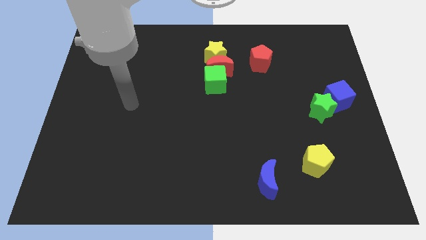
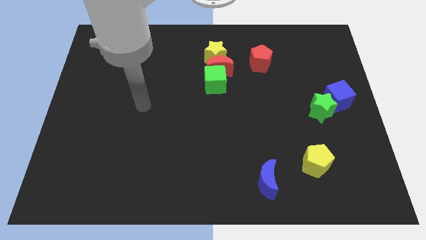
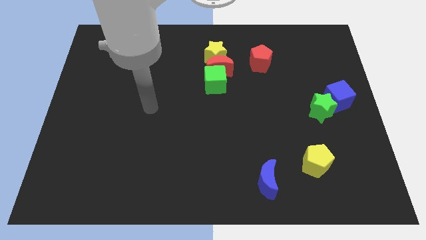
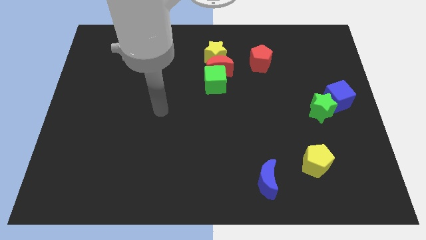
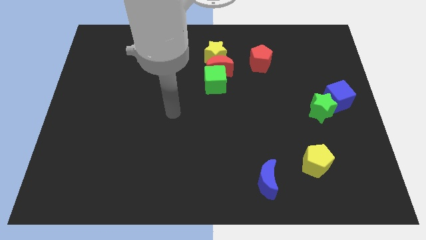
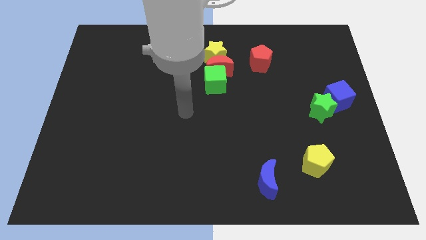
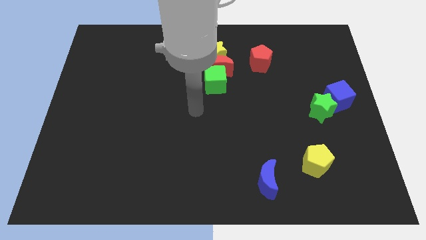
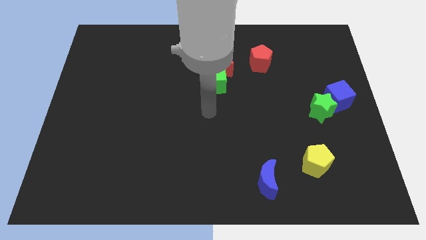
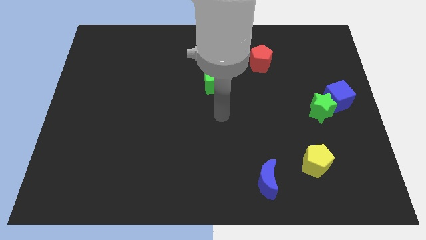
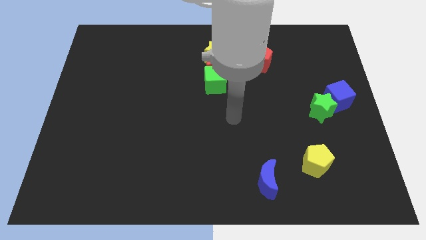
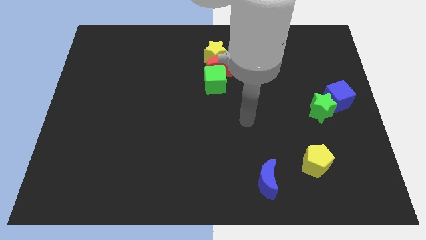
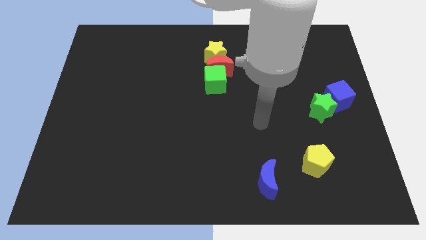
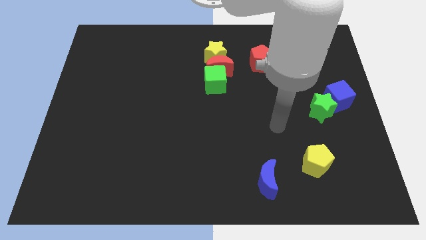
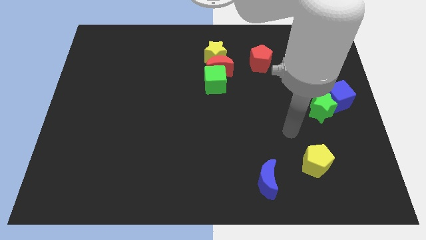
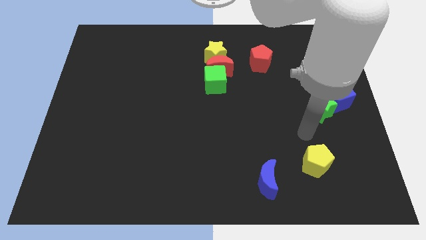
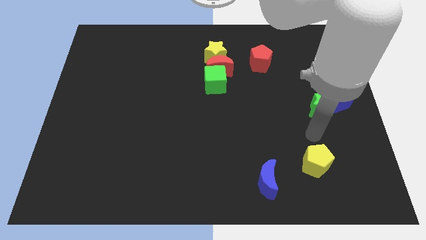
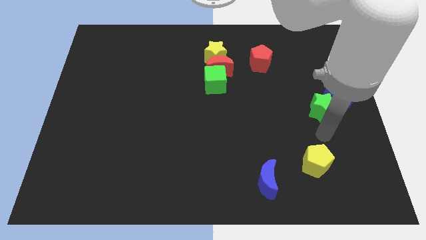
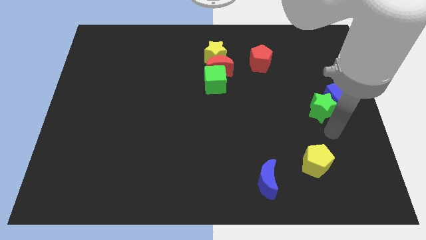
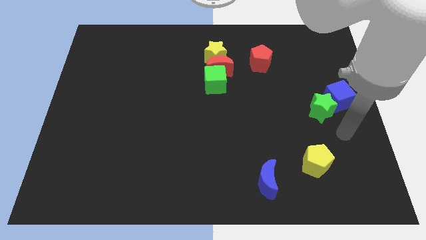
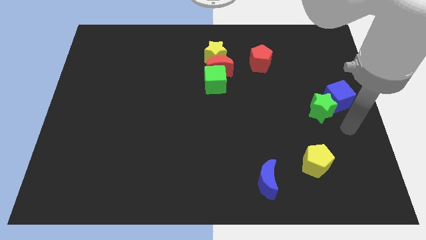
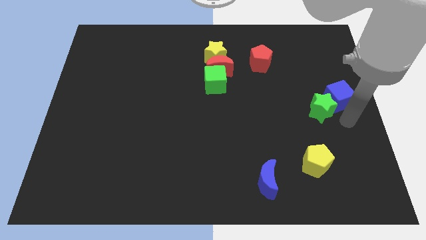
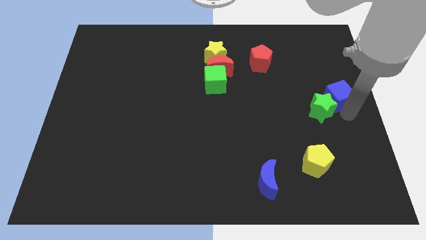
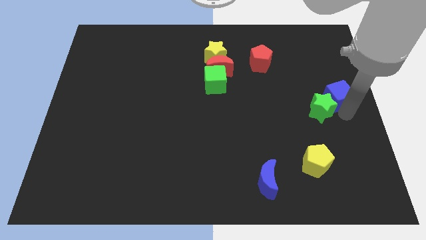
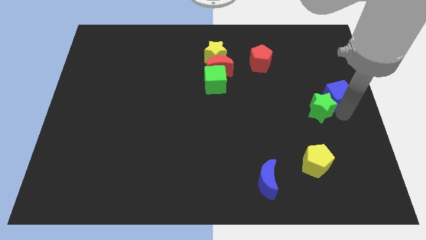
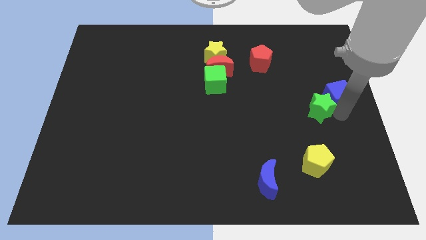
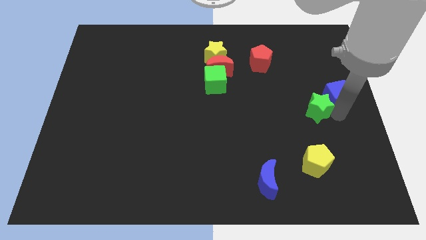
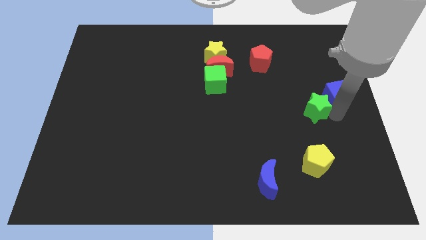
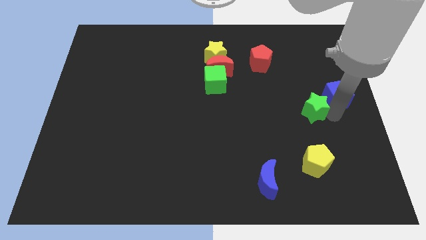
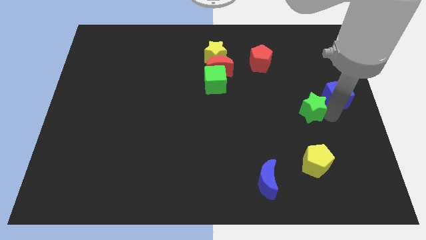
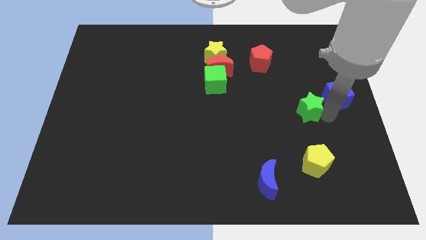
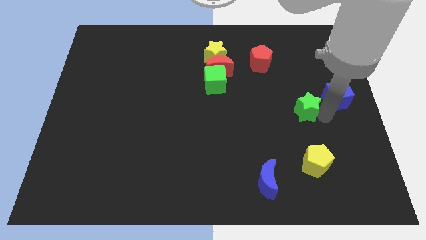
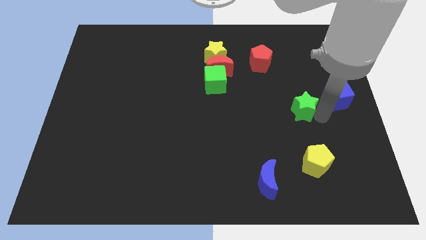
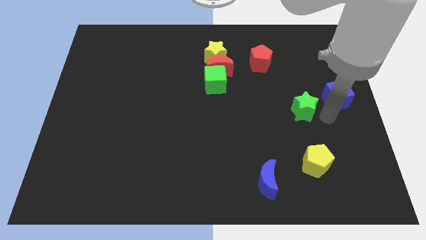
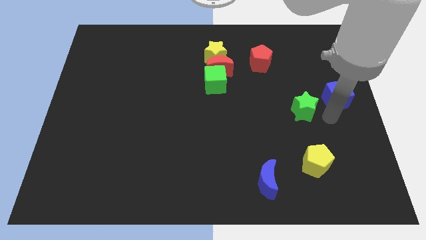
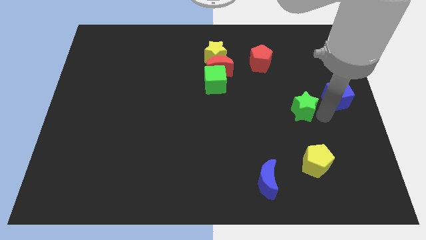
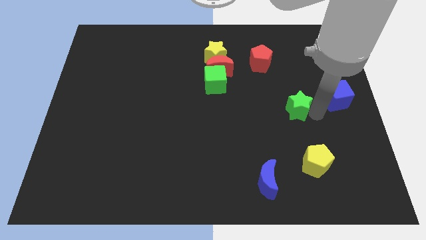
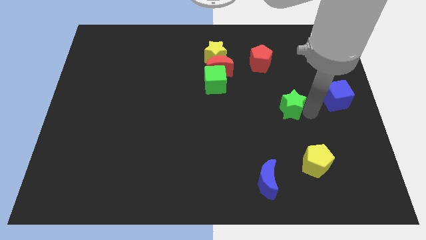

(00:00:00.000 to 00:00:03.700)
push the green star a little to the left

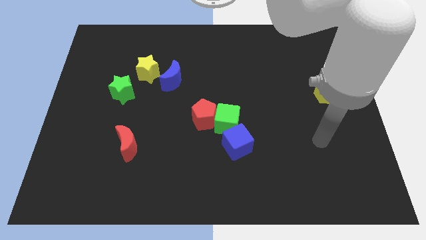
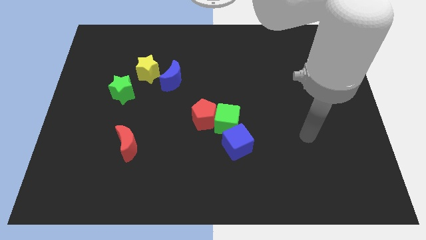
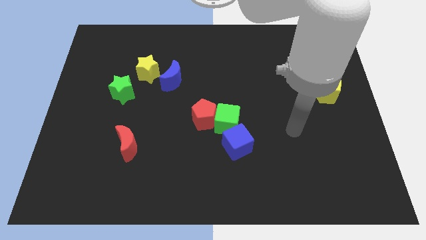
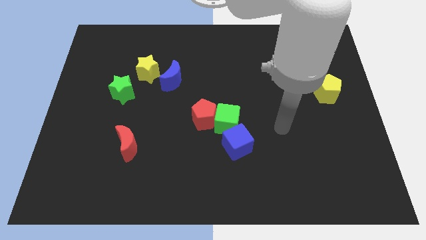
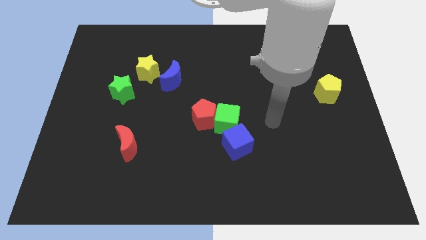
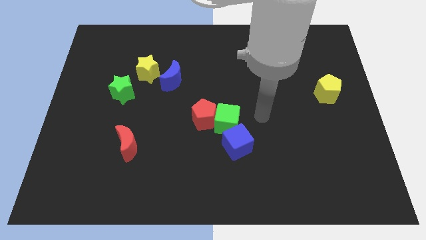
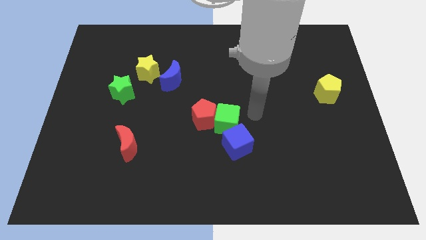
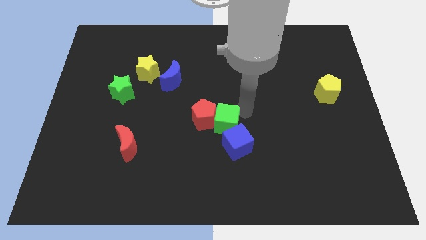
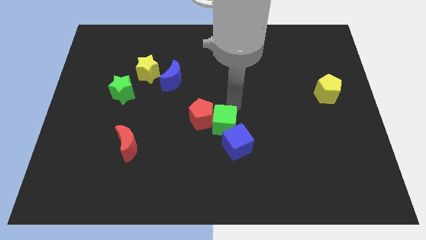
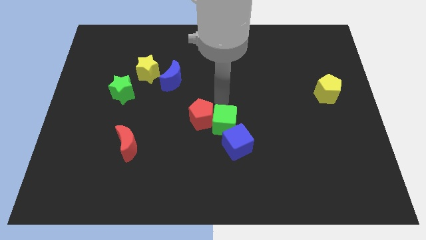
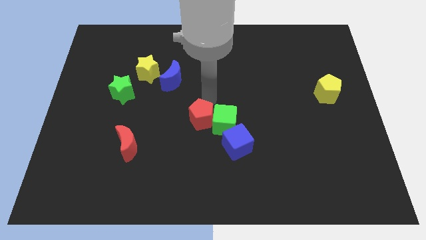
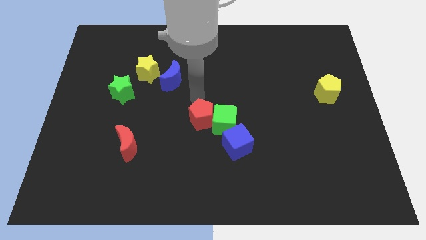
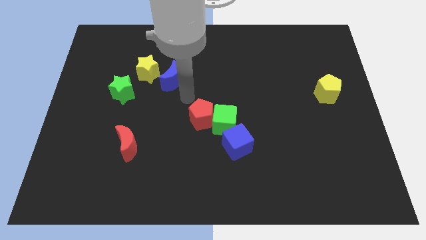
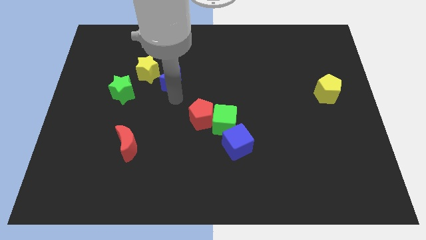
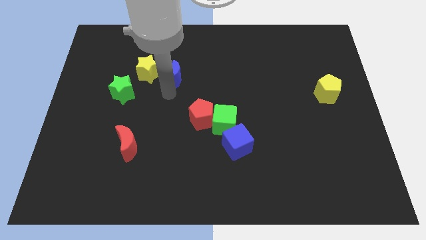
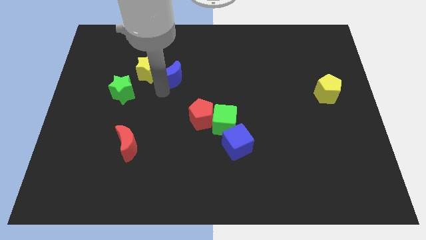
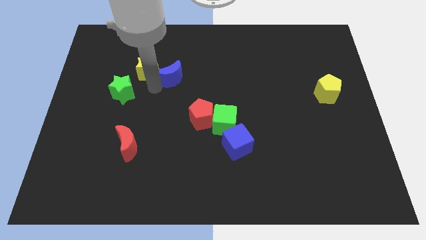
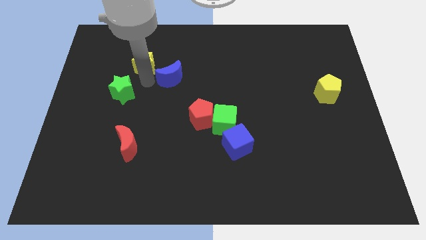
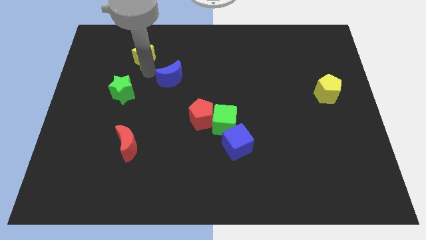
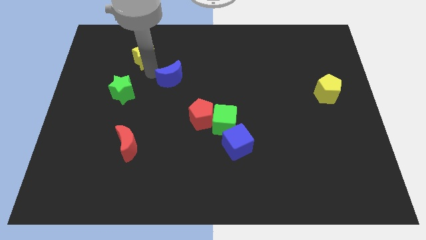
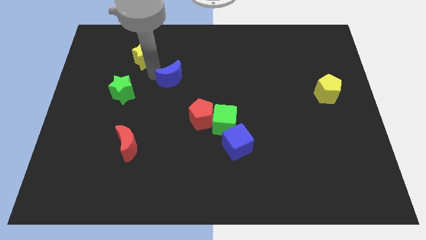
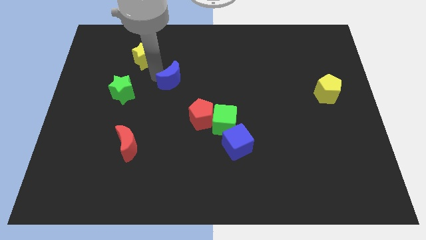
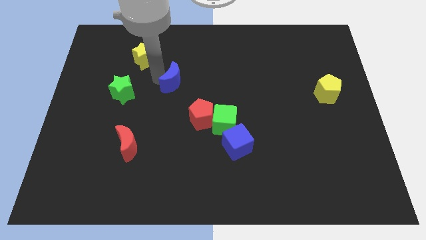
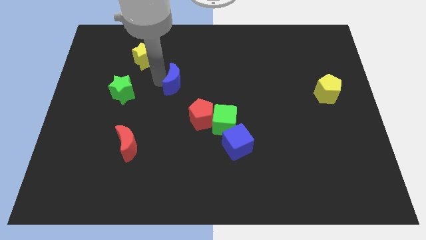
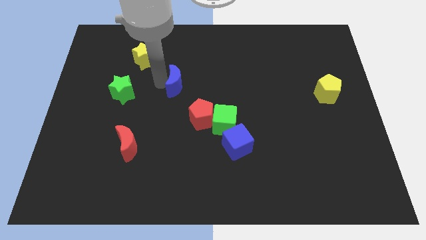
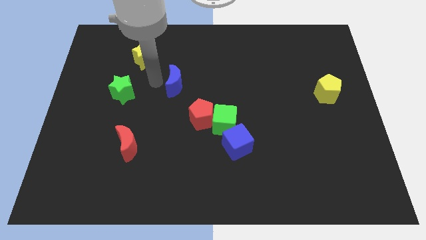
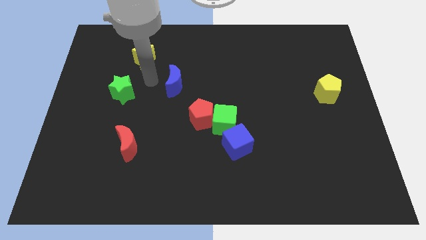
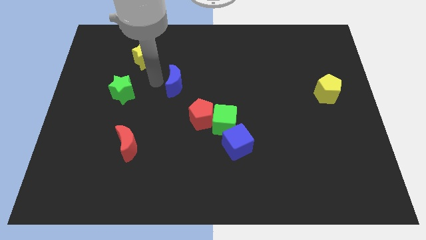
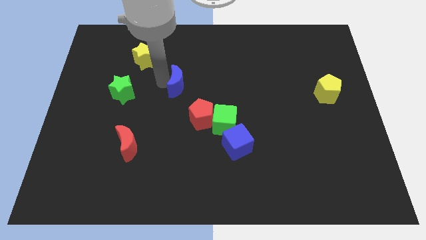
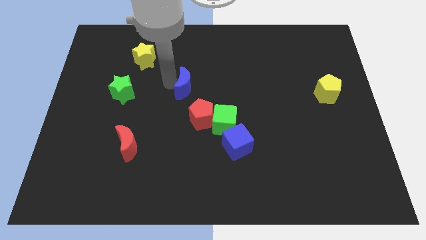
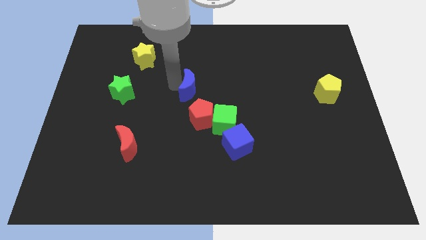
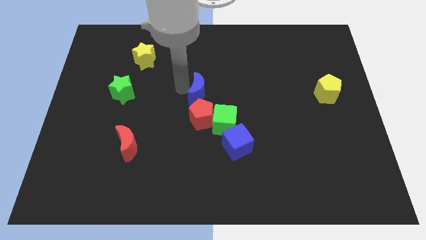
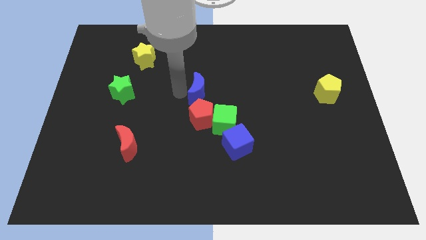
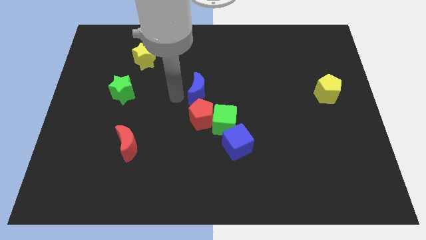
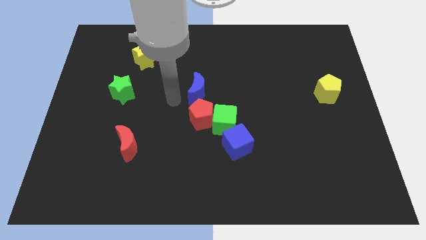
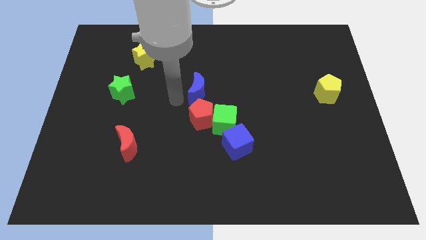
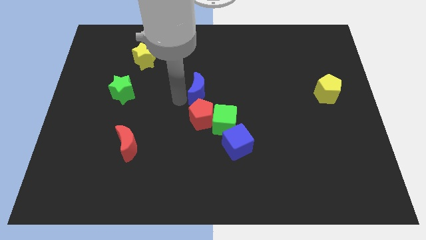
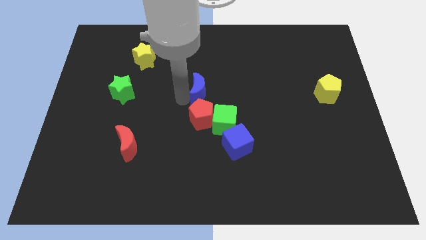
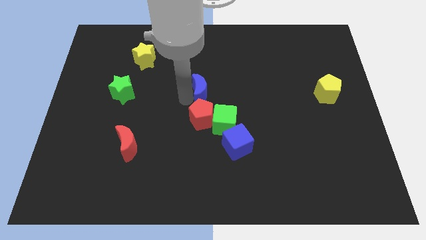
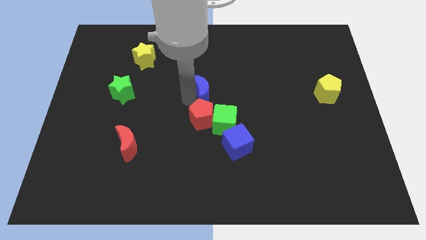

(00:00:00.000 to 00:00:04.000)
slide the blue moon to the right slightly

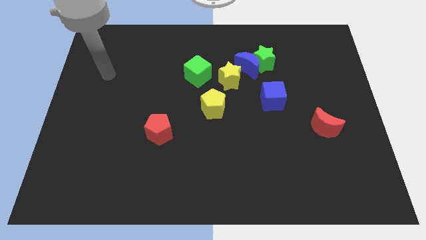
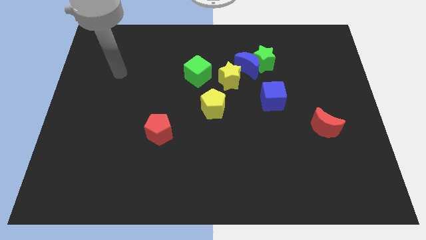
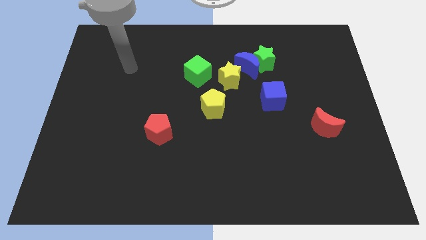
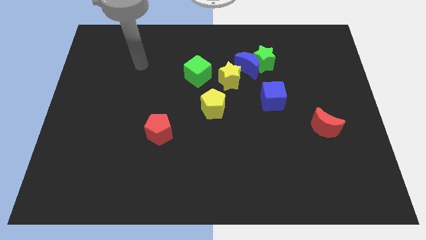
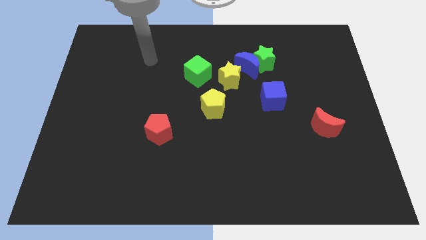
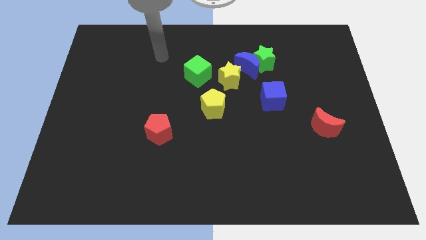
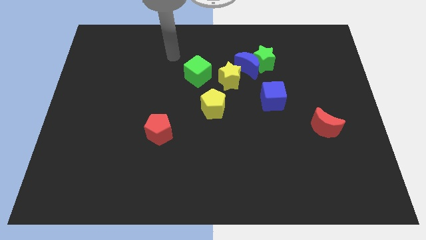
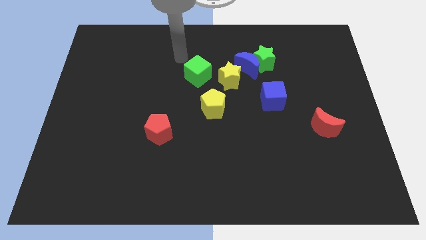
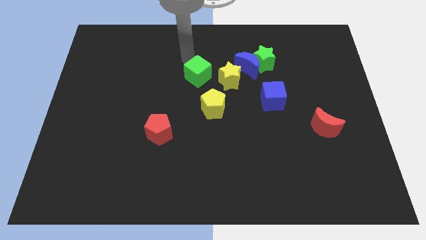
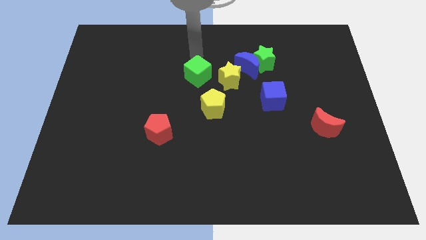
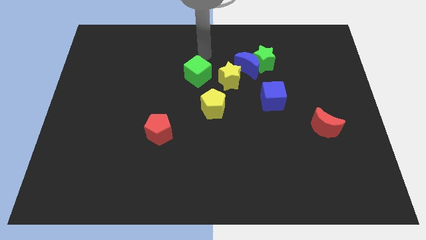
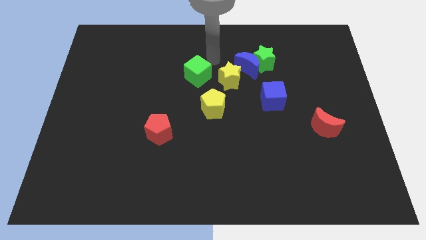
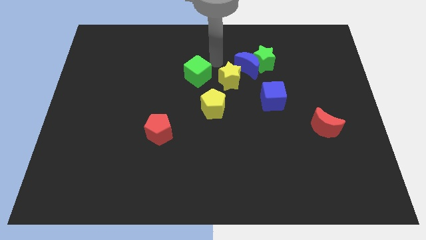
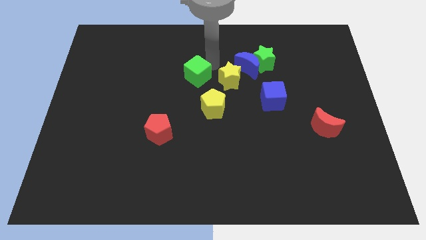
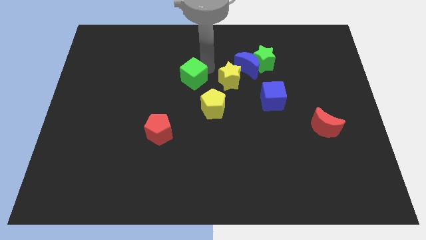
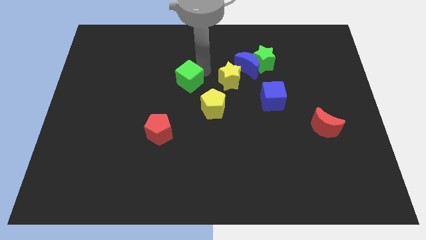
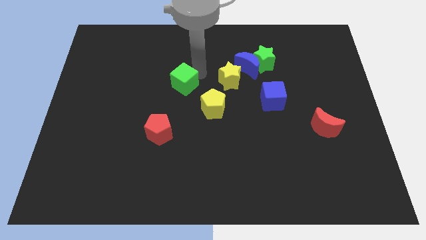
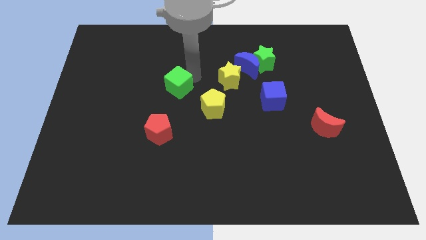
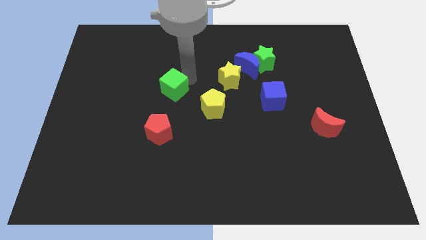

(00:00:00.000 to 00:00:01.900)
push the green cube somewhat downwards and to the left diagonally
